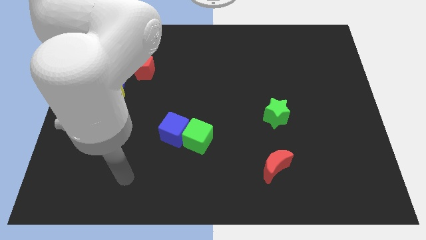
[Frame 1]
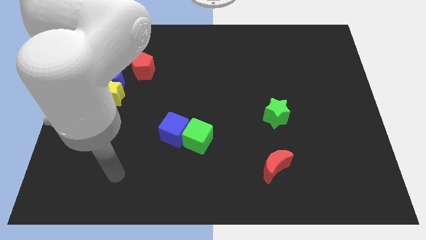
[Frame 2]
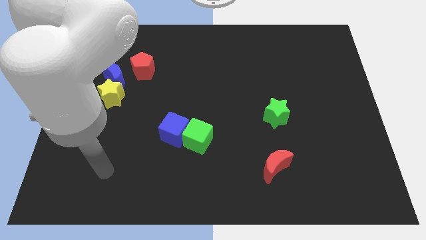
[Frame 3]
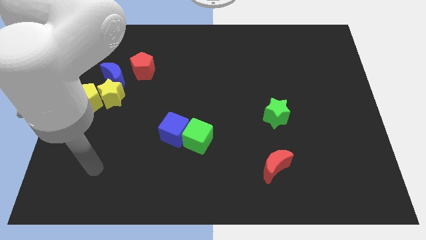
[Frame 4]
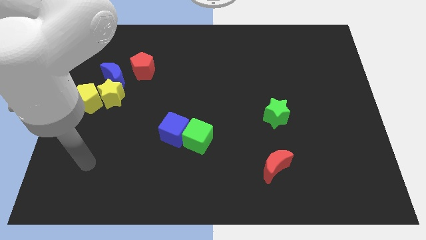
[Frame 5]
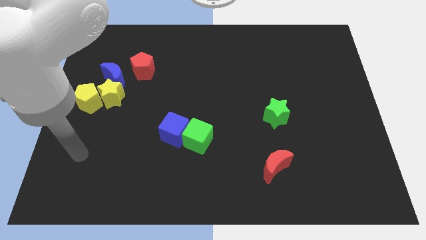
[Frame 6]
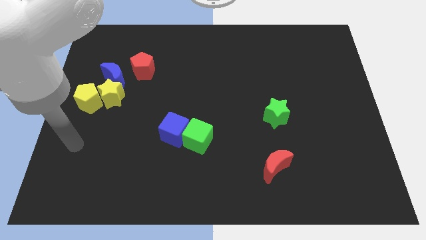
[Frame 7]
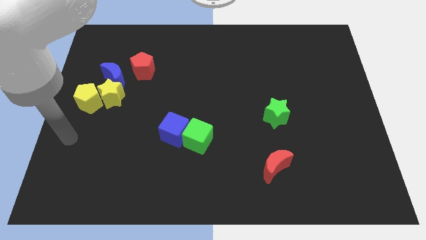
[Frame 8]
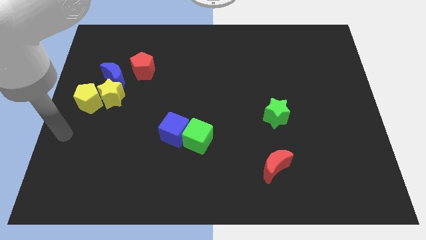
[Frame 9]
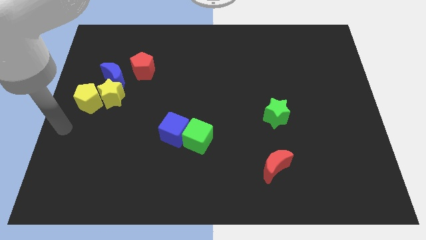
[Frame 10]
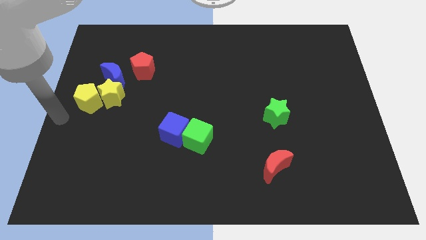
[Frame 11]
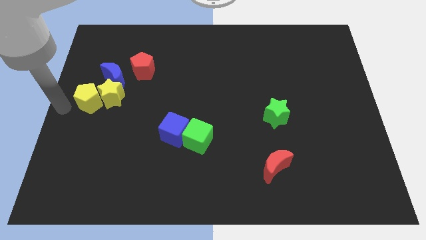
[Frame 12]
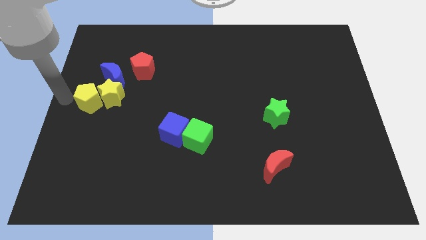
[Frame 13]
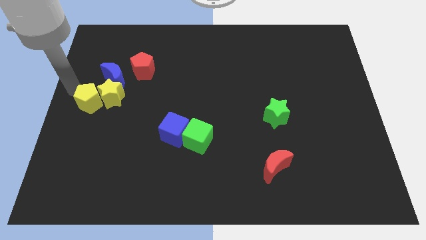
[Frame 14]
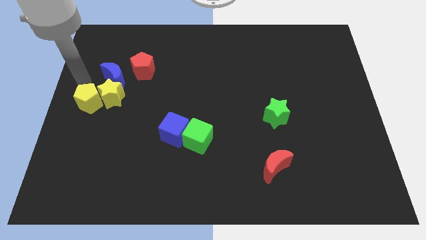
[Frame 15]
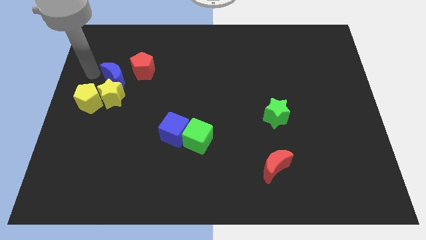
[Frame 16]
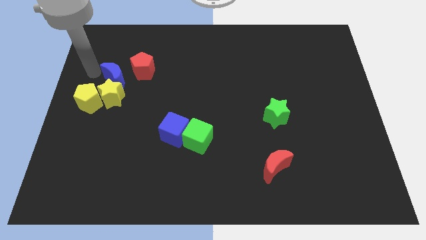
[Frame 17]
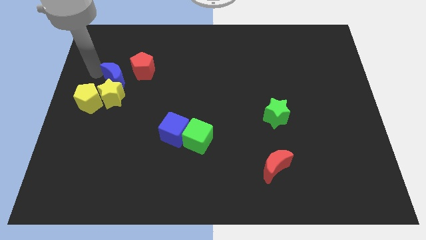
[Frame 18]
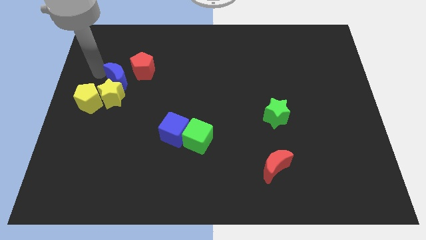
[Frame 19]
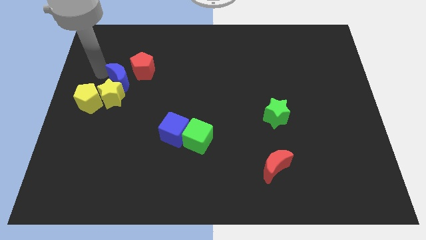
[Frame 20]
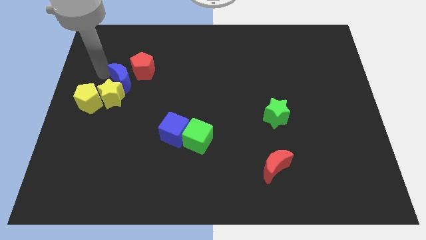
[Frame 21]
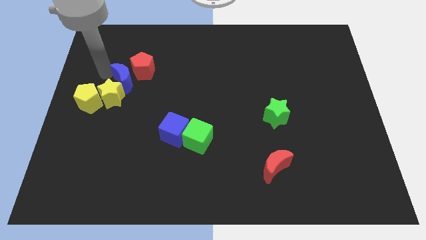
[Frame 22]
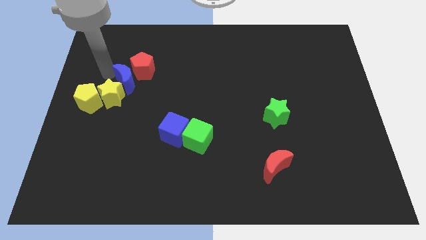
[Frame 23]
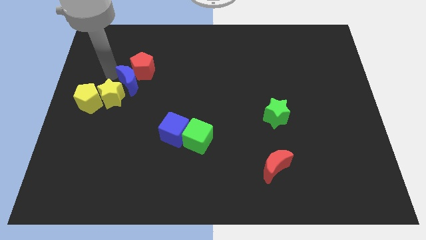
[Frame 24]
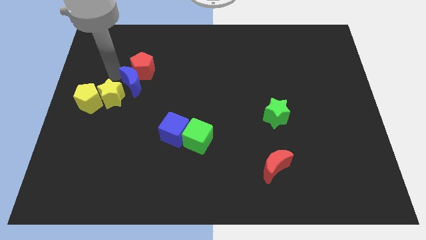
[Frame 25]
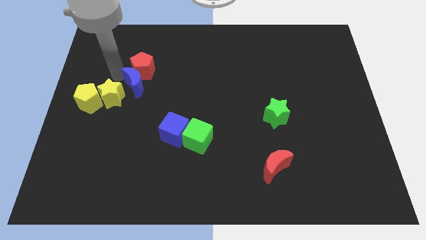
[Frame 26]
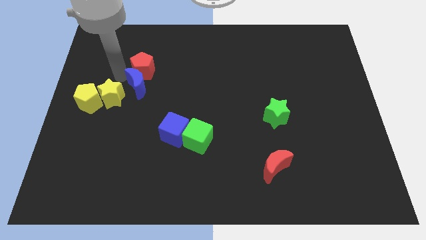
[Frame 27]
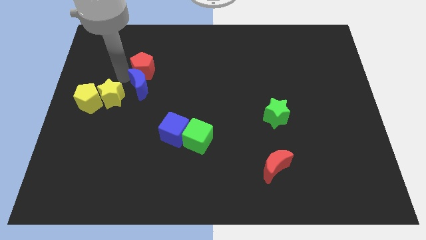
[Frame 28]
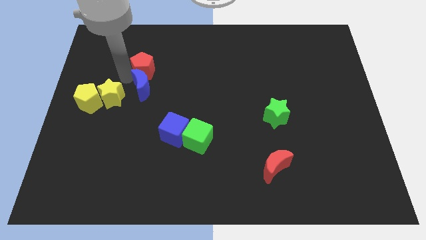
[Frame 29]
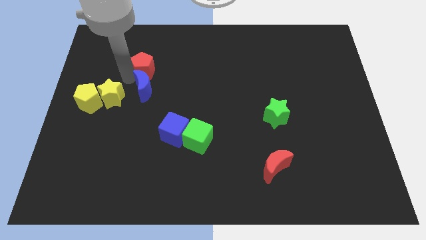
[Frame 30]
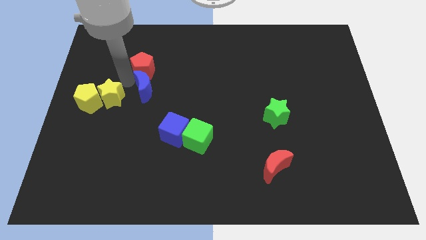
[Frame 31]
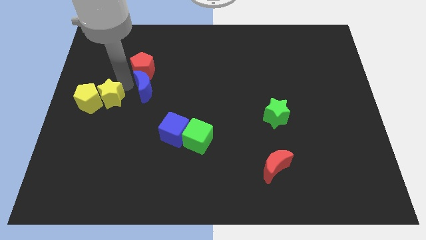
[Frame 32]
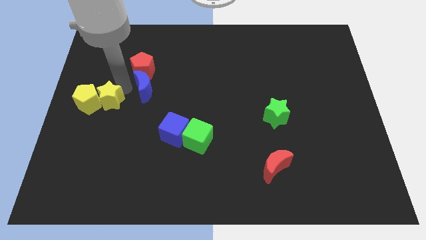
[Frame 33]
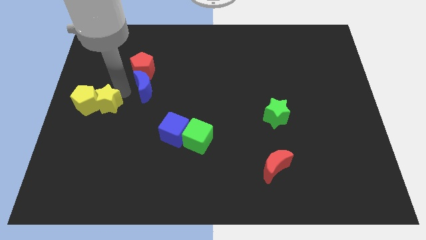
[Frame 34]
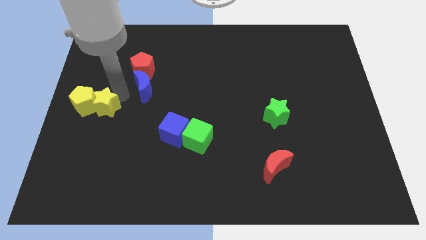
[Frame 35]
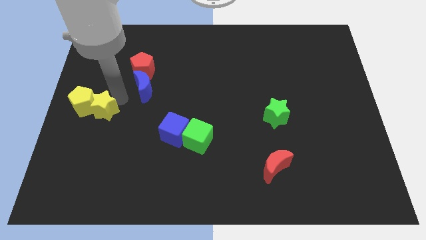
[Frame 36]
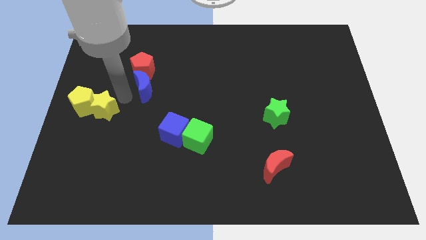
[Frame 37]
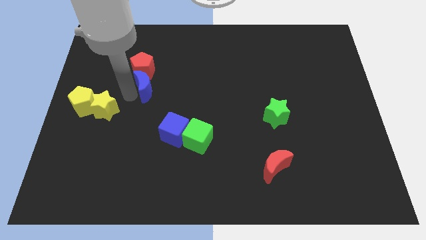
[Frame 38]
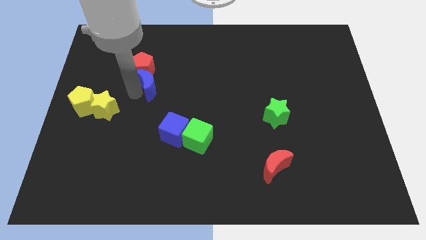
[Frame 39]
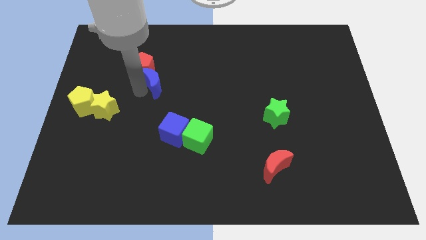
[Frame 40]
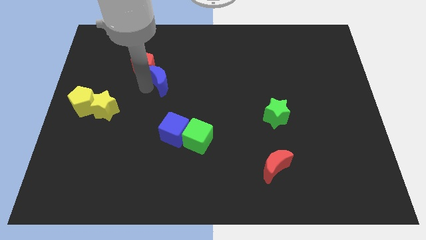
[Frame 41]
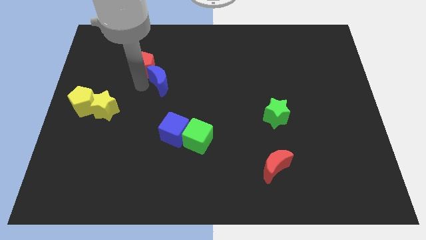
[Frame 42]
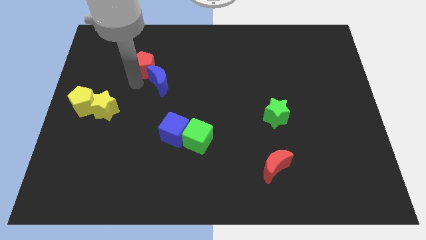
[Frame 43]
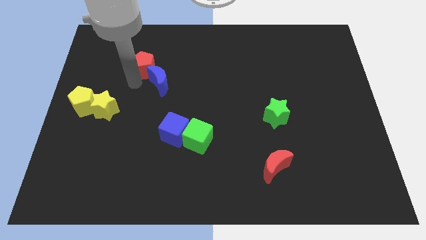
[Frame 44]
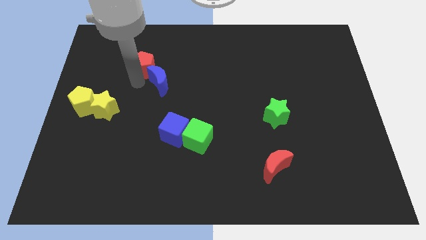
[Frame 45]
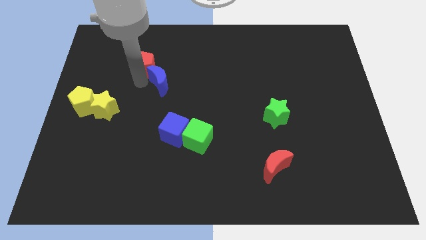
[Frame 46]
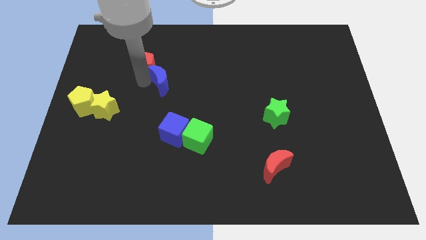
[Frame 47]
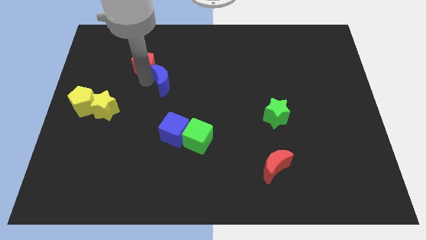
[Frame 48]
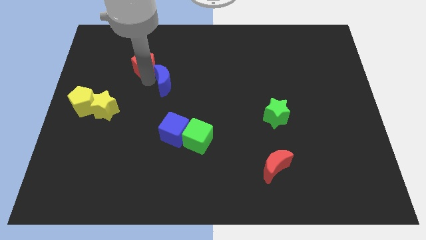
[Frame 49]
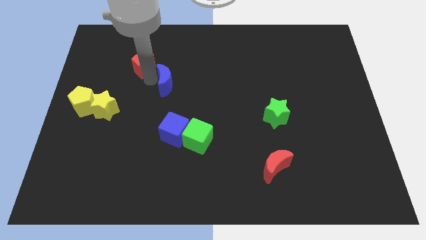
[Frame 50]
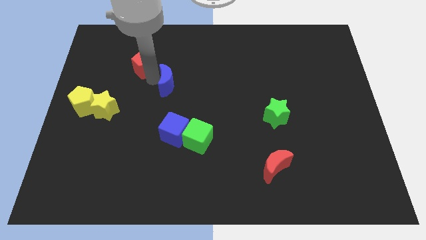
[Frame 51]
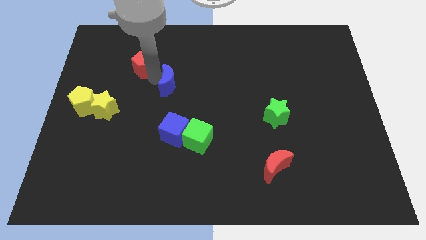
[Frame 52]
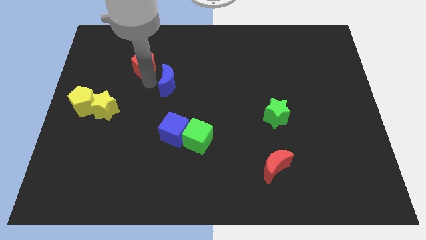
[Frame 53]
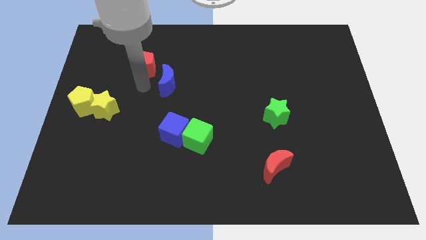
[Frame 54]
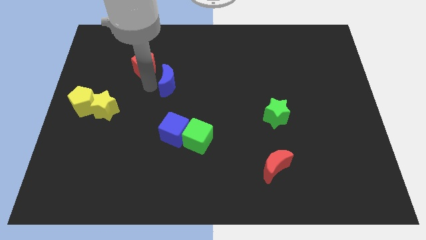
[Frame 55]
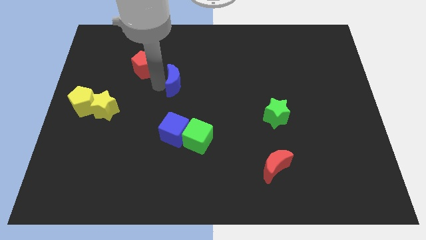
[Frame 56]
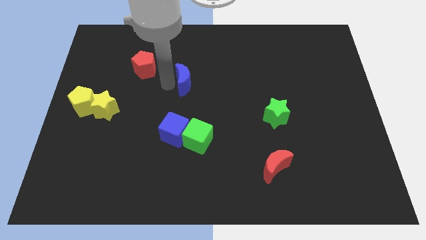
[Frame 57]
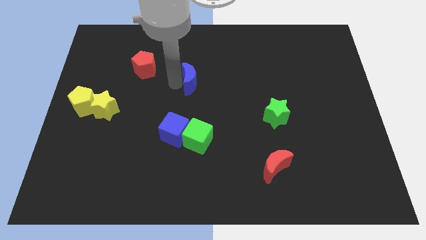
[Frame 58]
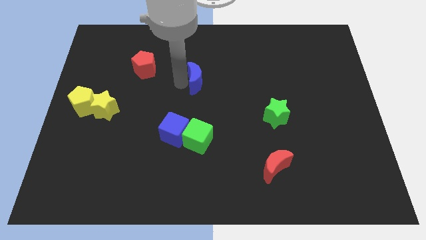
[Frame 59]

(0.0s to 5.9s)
push the blue moon right

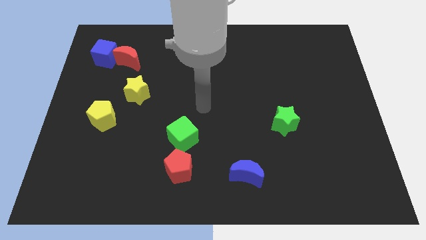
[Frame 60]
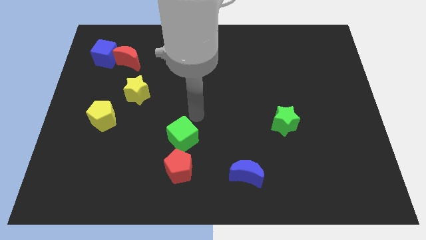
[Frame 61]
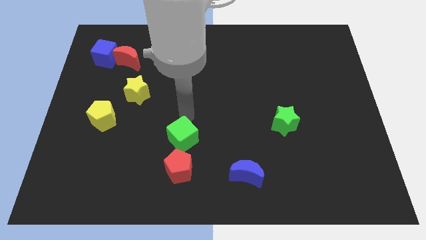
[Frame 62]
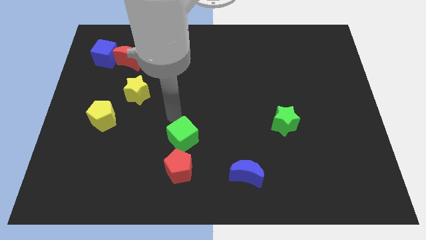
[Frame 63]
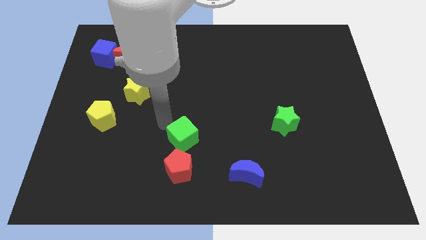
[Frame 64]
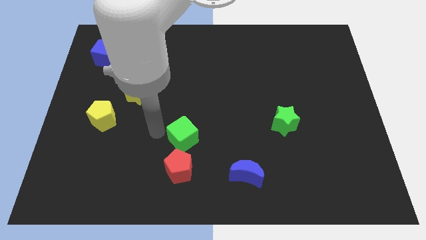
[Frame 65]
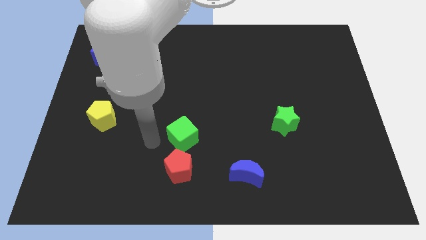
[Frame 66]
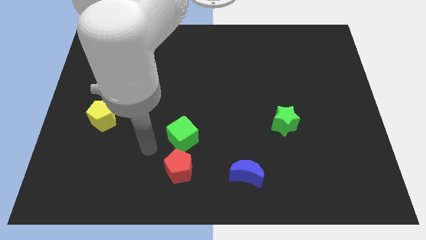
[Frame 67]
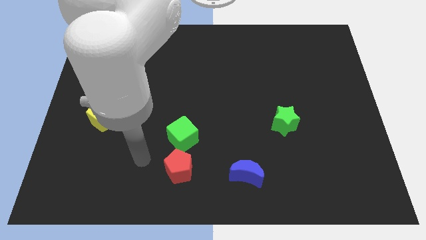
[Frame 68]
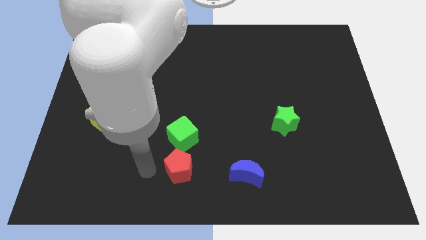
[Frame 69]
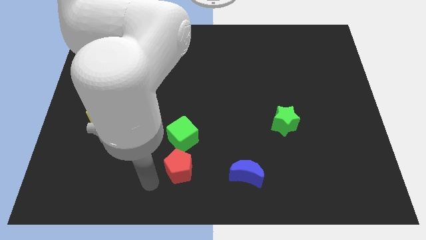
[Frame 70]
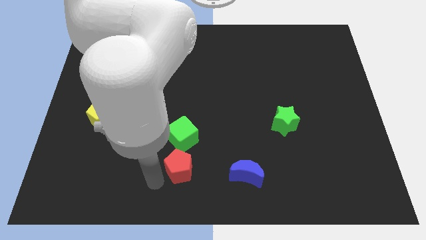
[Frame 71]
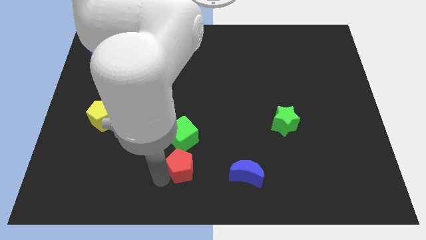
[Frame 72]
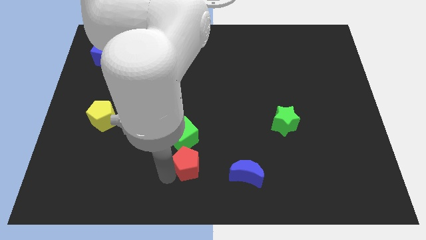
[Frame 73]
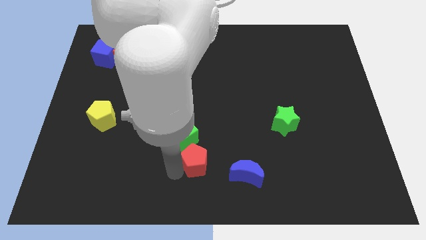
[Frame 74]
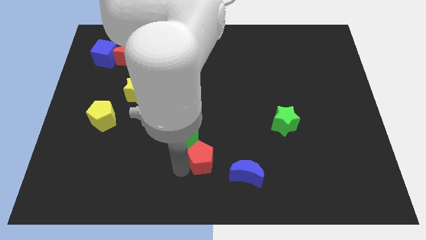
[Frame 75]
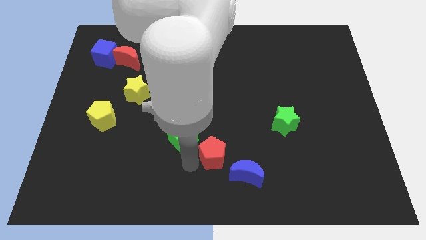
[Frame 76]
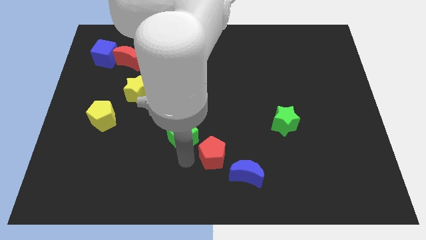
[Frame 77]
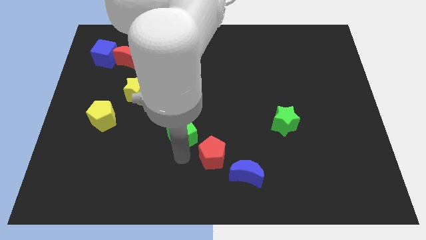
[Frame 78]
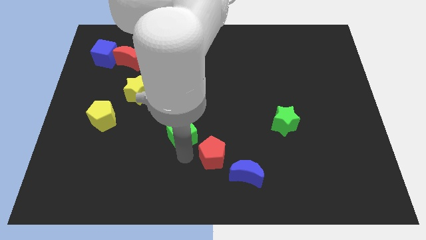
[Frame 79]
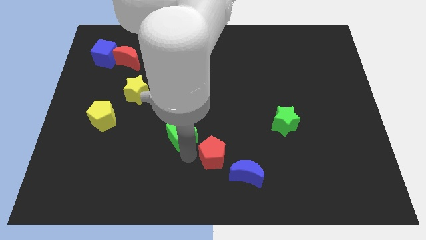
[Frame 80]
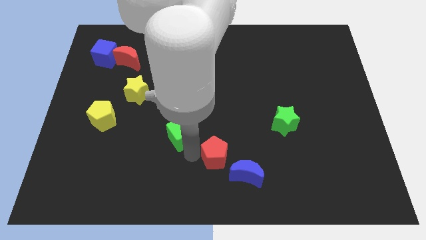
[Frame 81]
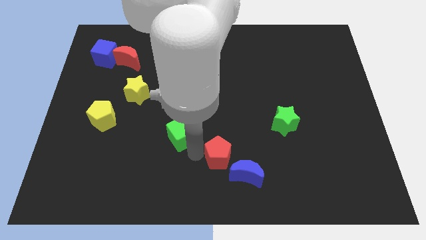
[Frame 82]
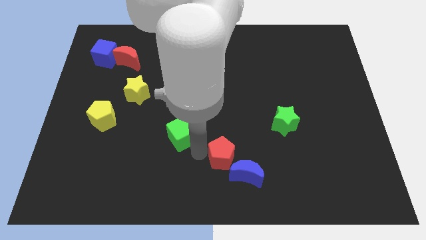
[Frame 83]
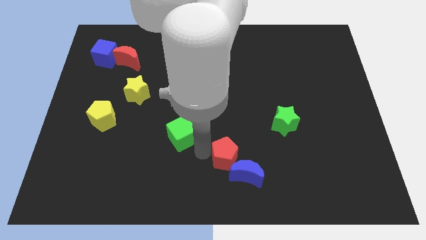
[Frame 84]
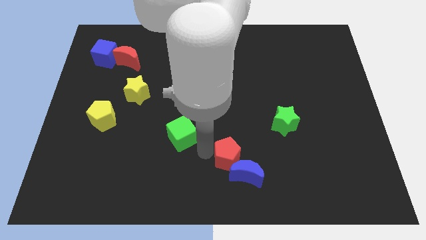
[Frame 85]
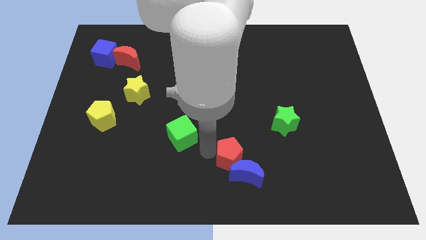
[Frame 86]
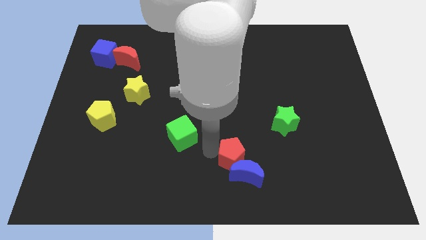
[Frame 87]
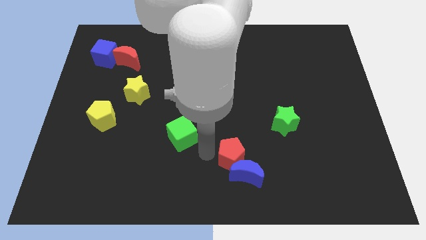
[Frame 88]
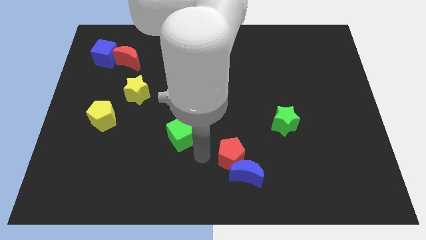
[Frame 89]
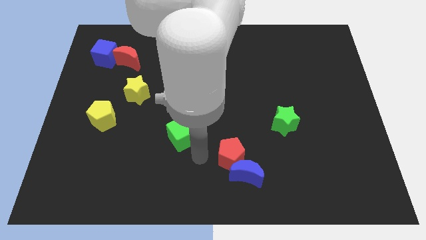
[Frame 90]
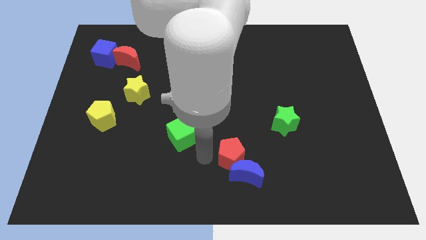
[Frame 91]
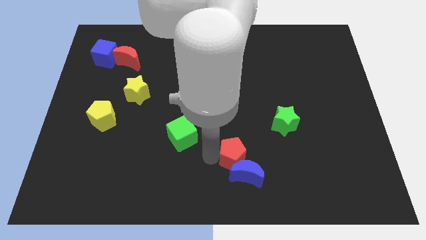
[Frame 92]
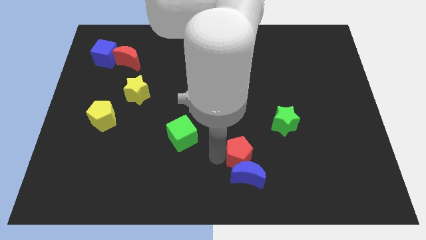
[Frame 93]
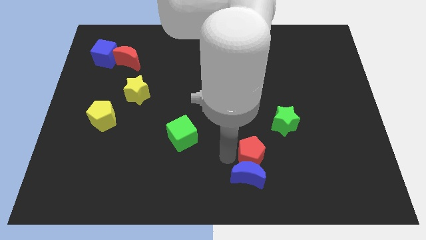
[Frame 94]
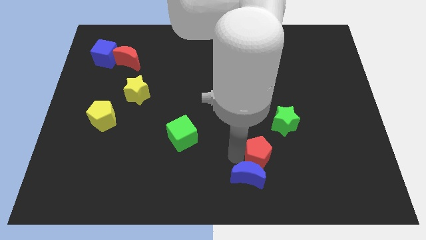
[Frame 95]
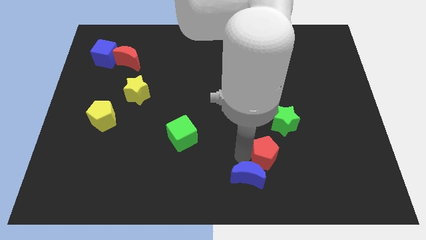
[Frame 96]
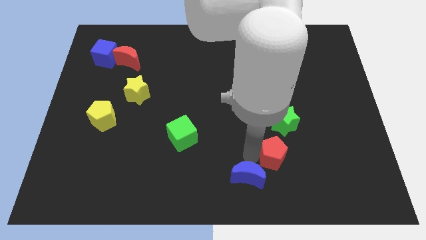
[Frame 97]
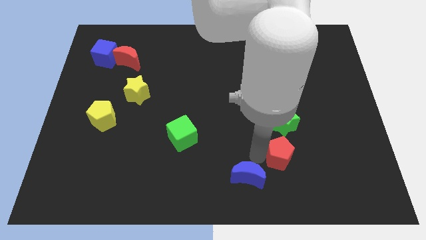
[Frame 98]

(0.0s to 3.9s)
push the red pentagon right
